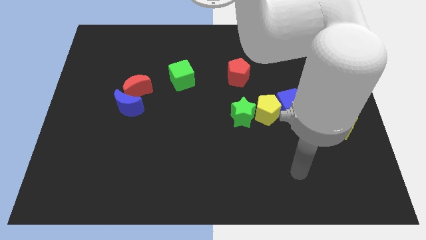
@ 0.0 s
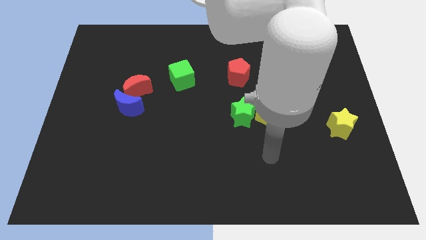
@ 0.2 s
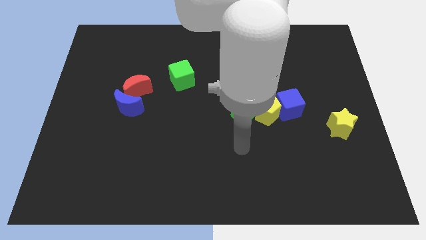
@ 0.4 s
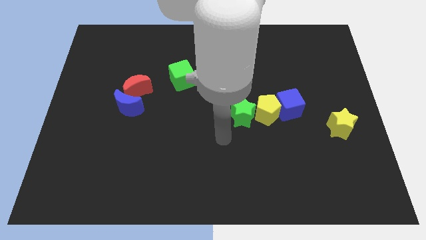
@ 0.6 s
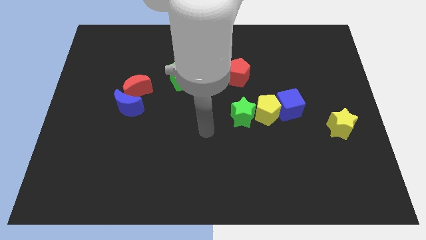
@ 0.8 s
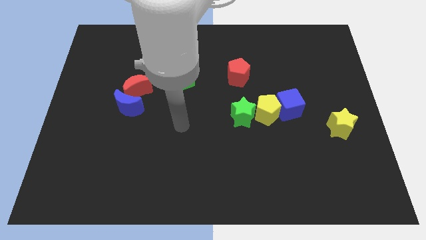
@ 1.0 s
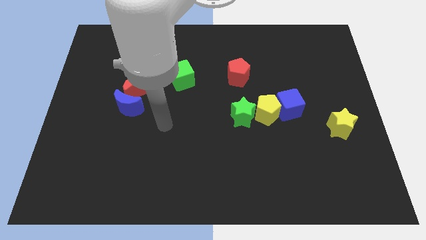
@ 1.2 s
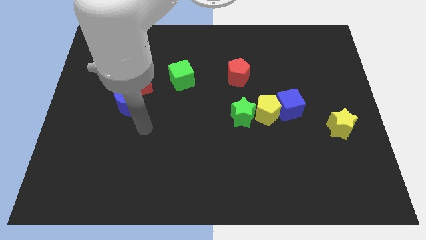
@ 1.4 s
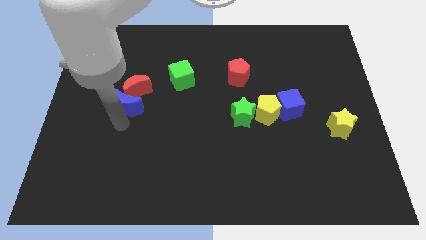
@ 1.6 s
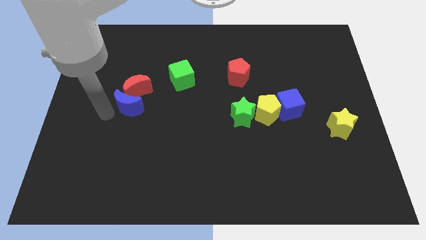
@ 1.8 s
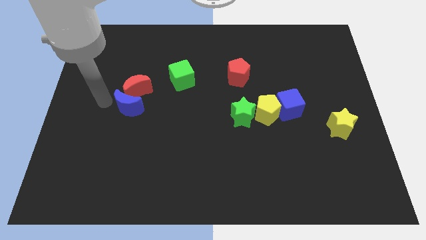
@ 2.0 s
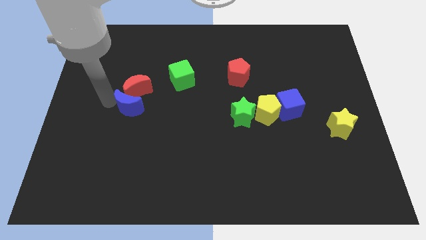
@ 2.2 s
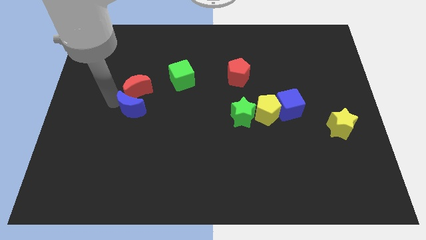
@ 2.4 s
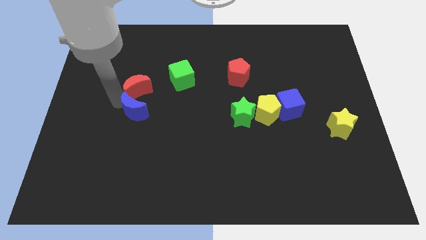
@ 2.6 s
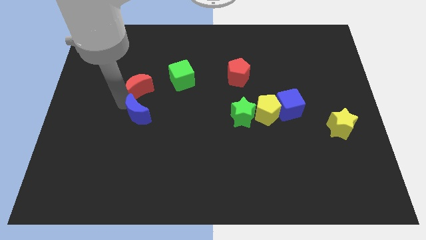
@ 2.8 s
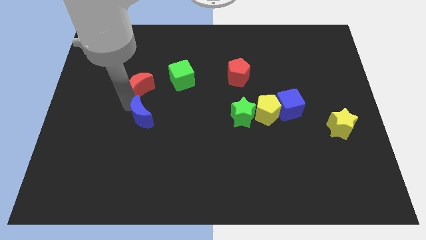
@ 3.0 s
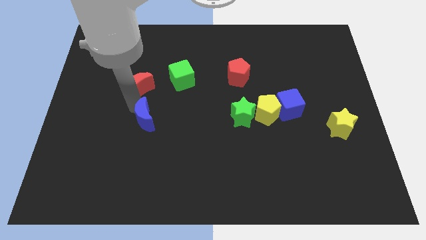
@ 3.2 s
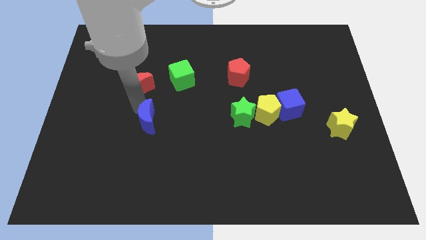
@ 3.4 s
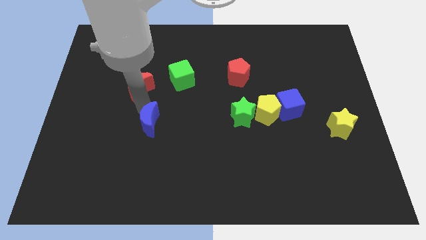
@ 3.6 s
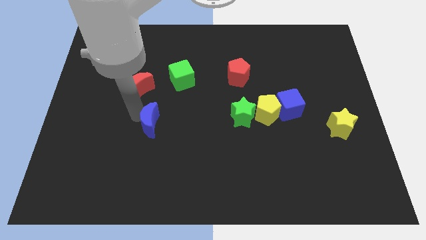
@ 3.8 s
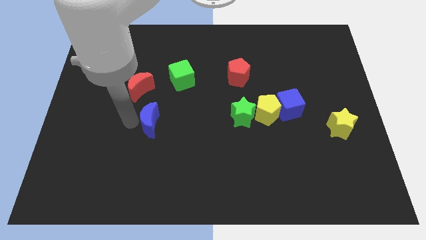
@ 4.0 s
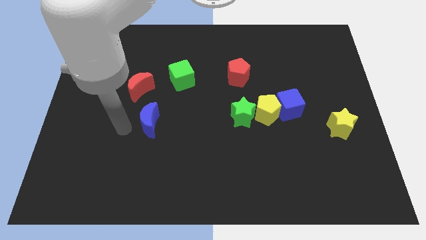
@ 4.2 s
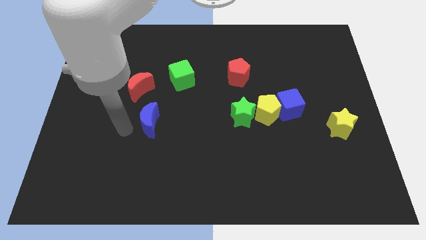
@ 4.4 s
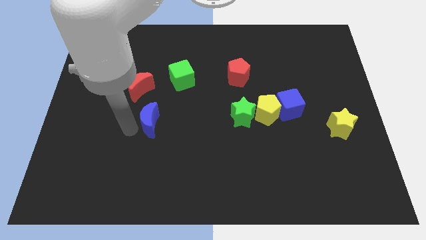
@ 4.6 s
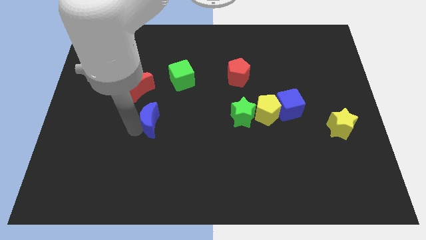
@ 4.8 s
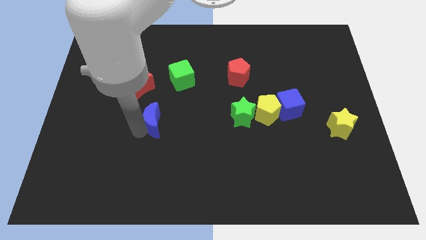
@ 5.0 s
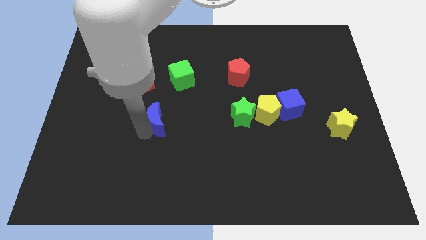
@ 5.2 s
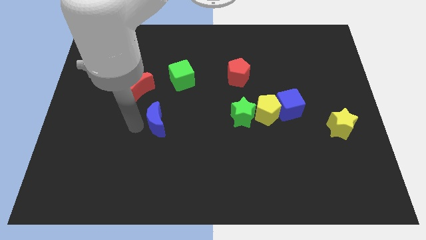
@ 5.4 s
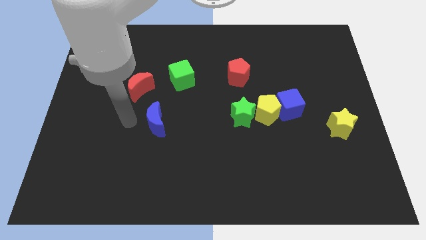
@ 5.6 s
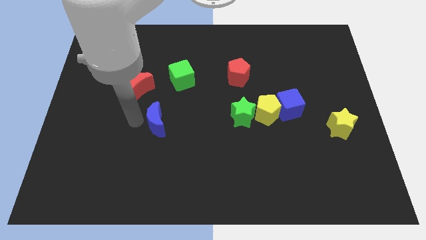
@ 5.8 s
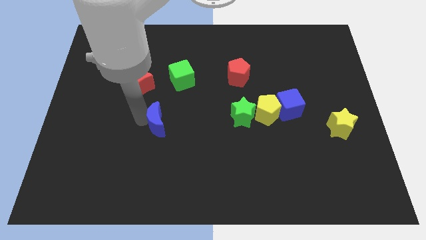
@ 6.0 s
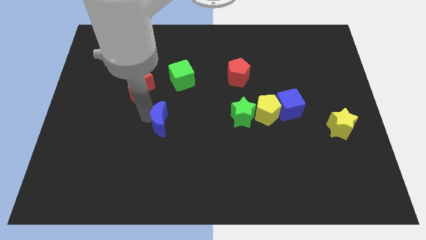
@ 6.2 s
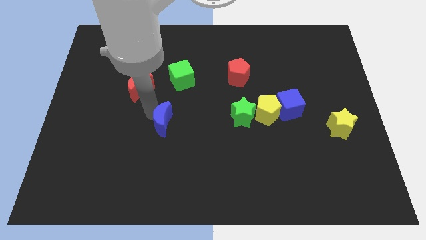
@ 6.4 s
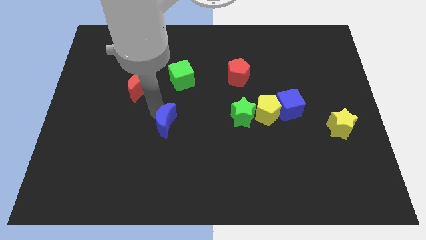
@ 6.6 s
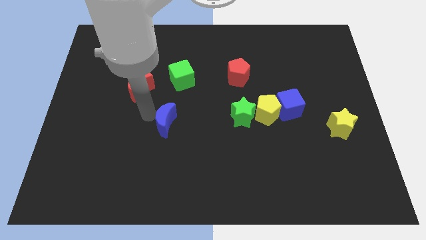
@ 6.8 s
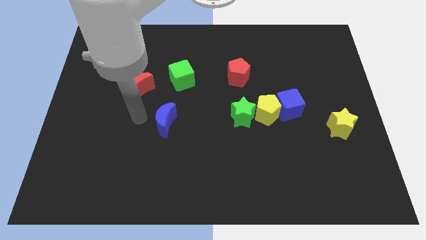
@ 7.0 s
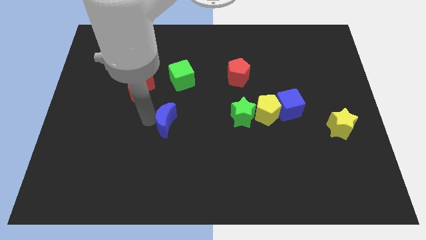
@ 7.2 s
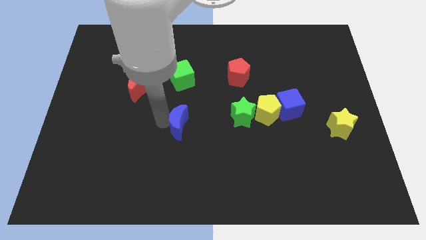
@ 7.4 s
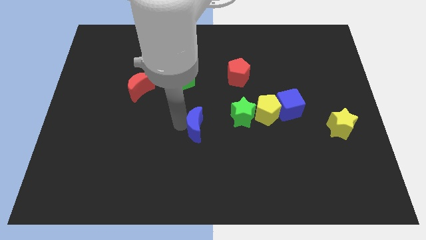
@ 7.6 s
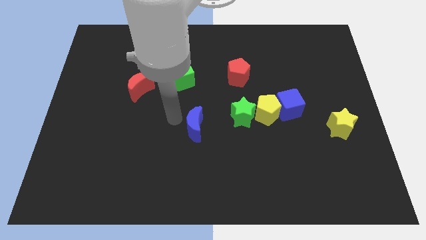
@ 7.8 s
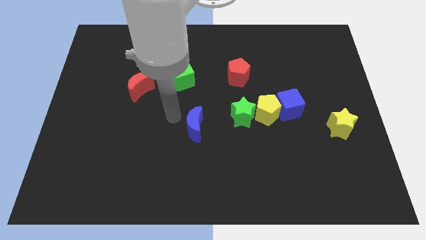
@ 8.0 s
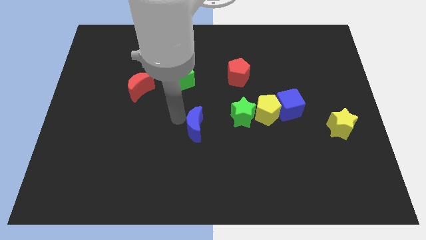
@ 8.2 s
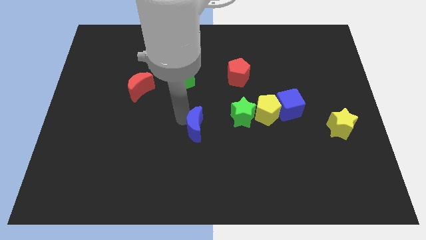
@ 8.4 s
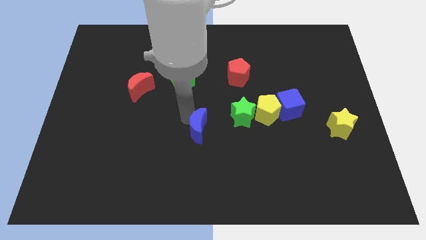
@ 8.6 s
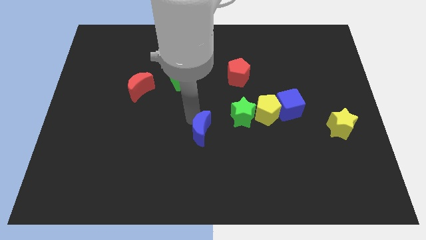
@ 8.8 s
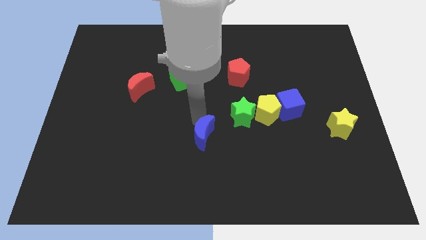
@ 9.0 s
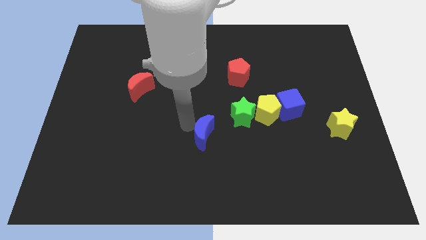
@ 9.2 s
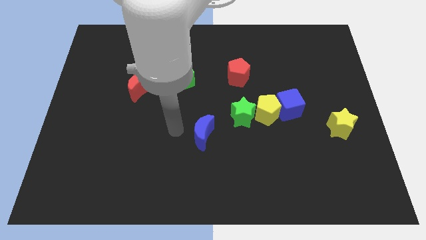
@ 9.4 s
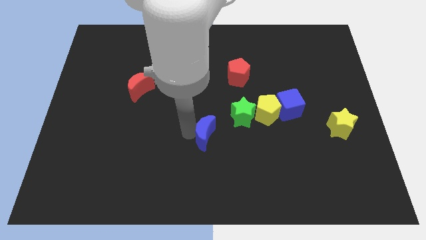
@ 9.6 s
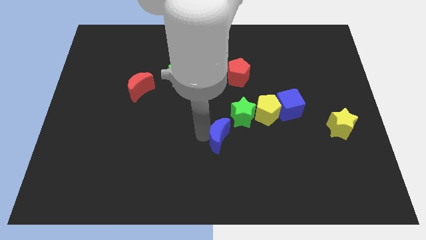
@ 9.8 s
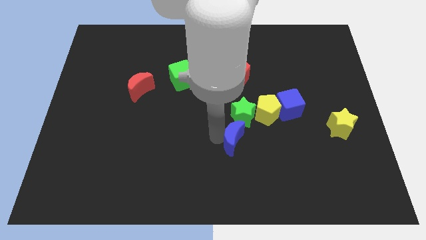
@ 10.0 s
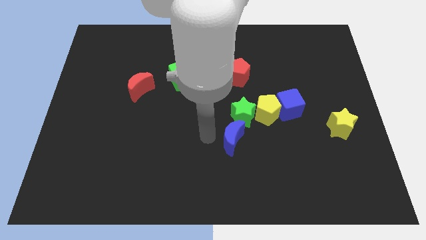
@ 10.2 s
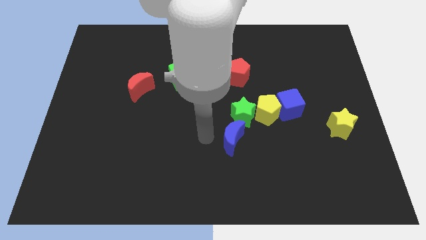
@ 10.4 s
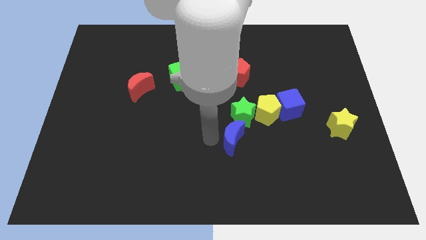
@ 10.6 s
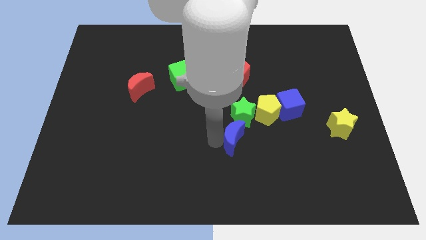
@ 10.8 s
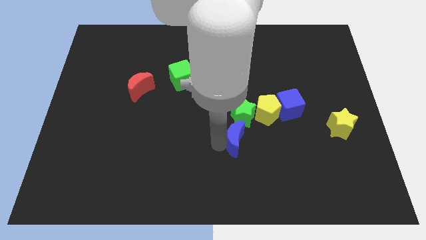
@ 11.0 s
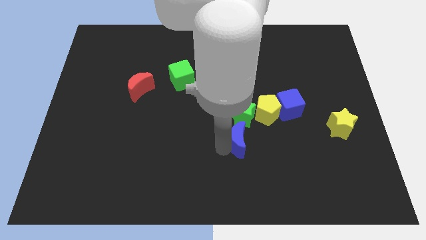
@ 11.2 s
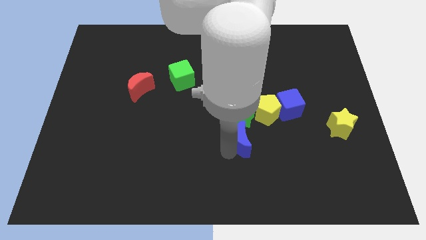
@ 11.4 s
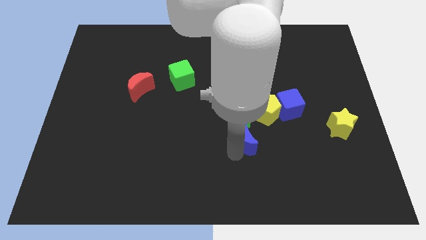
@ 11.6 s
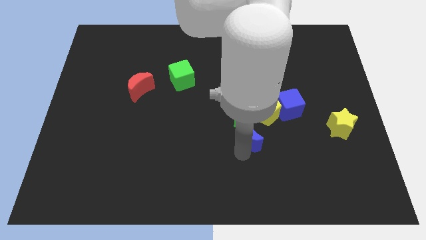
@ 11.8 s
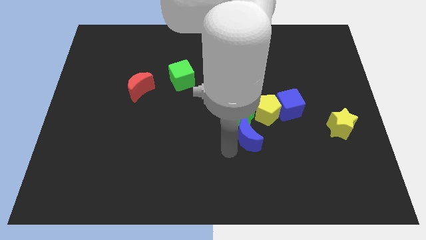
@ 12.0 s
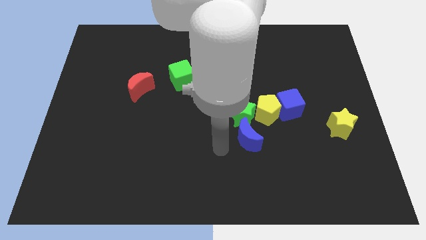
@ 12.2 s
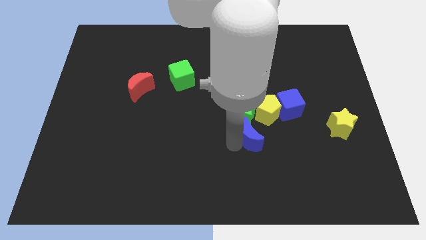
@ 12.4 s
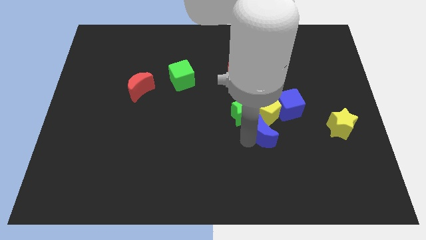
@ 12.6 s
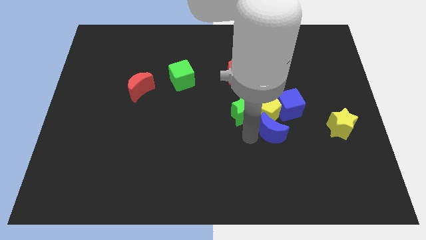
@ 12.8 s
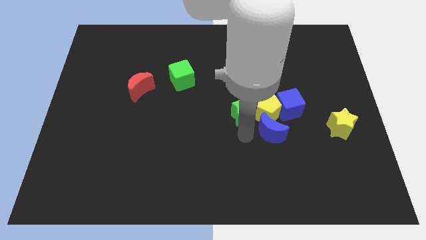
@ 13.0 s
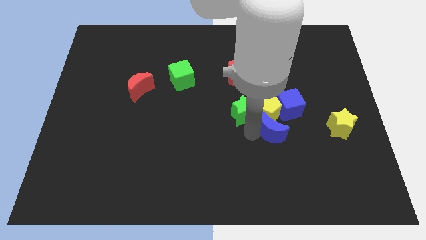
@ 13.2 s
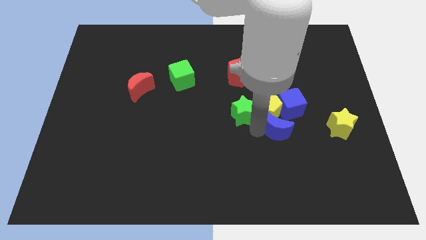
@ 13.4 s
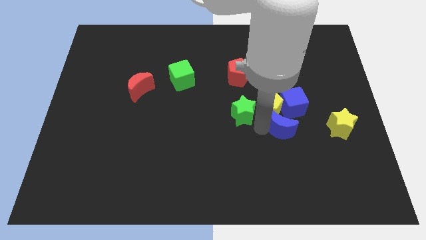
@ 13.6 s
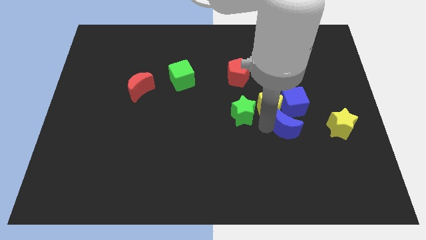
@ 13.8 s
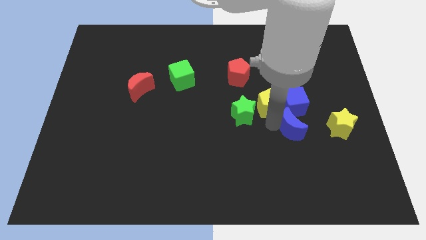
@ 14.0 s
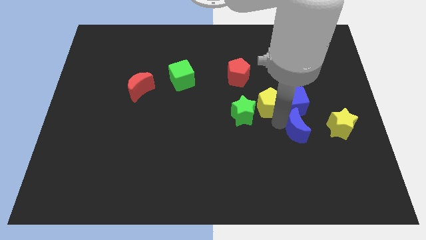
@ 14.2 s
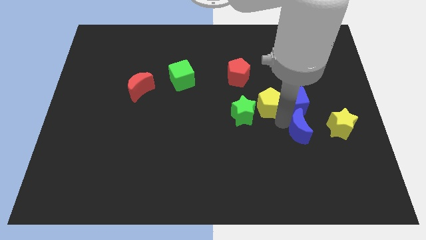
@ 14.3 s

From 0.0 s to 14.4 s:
slide the blue moon to the bottom right of the blue cube
